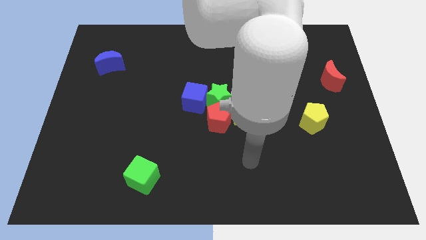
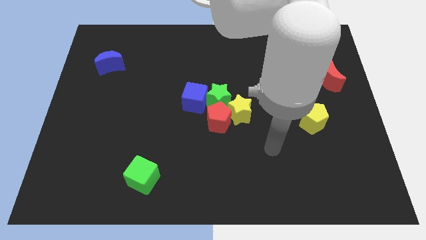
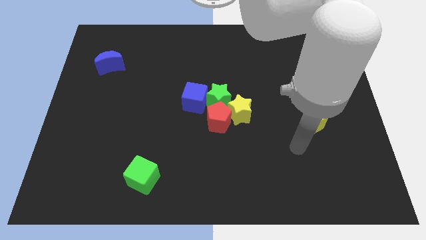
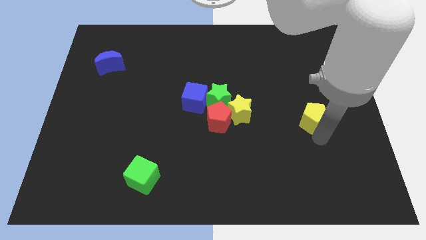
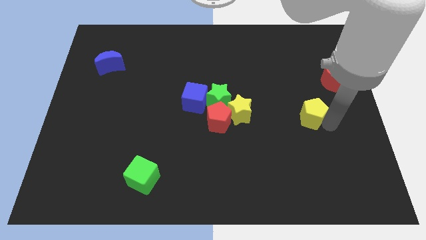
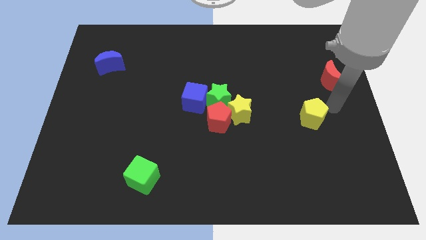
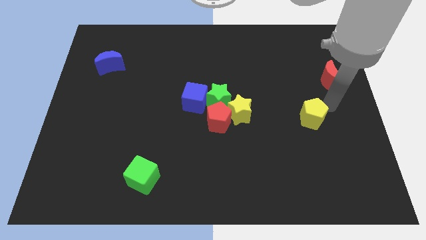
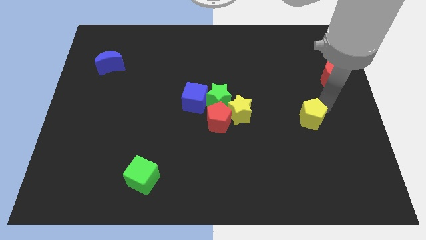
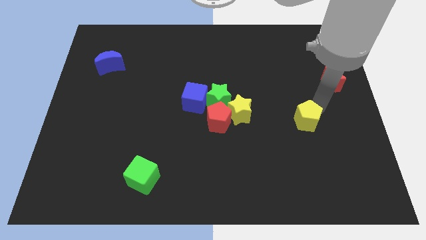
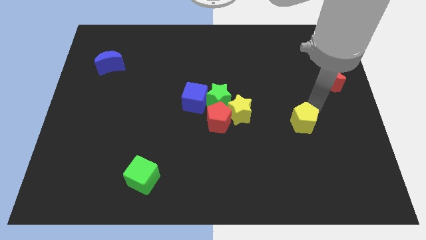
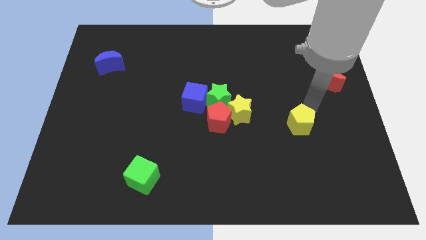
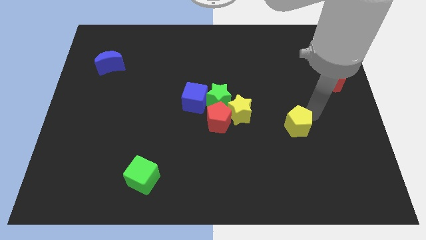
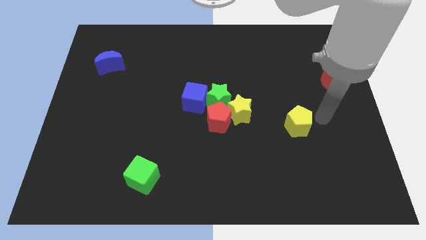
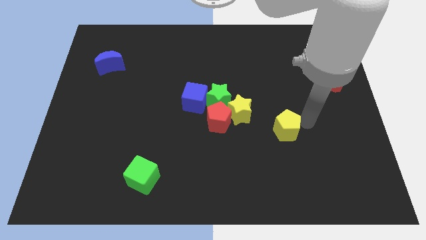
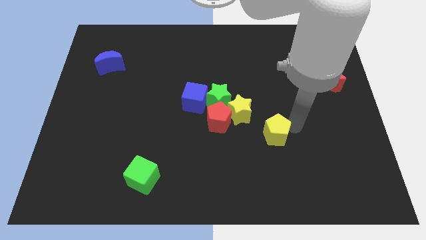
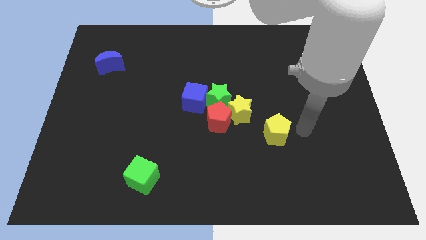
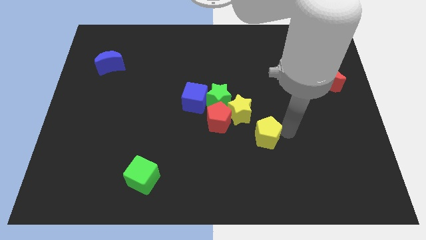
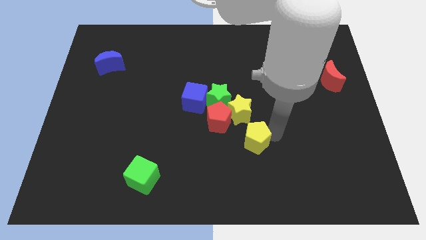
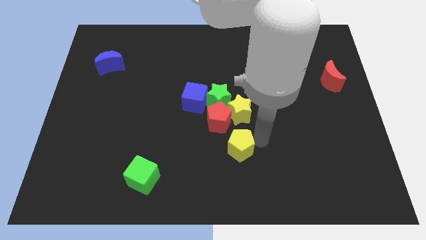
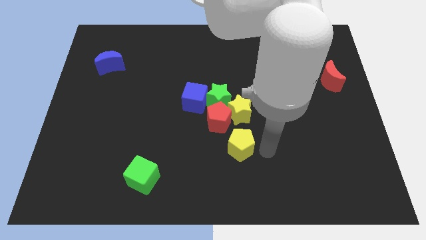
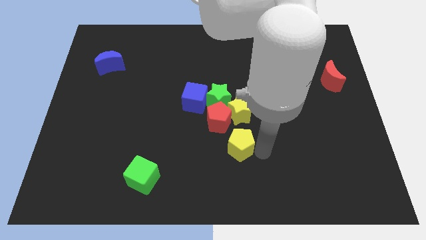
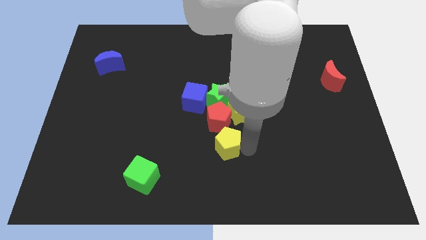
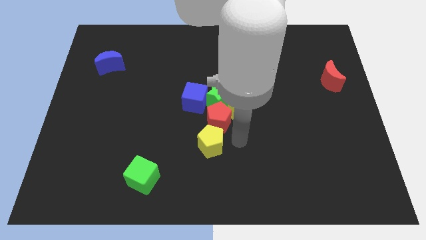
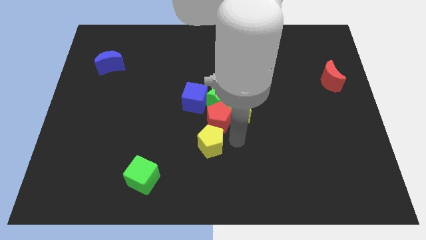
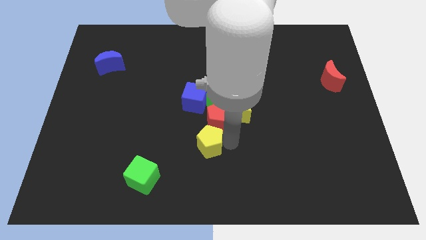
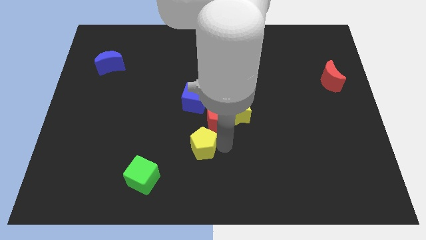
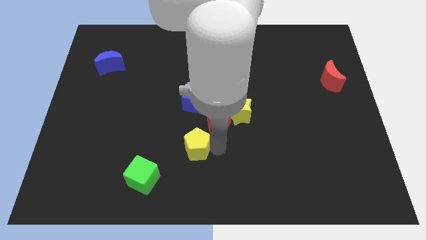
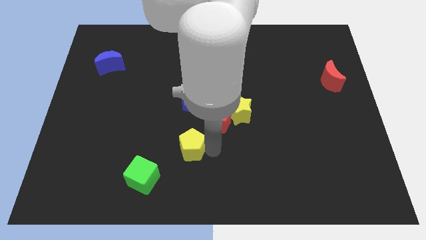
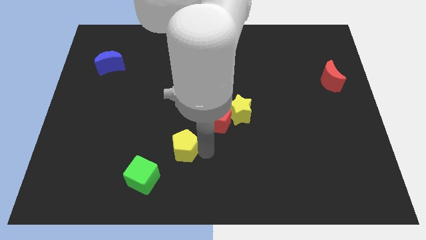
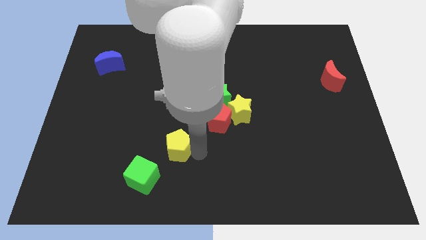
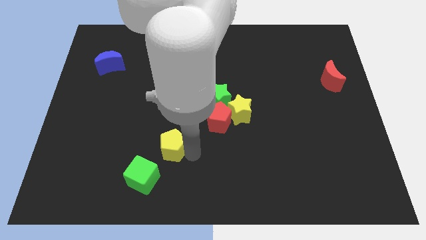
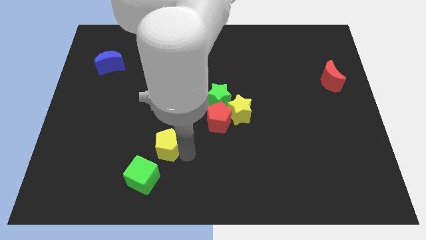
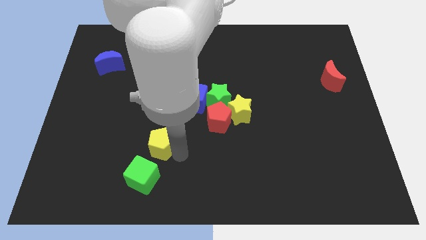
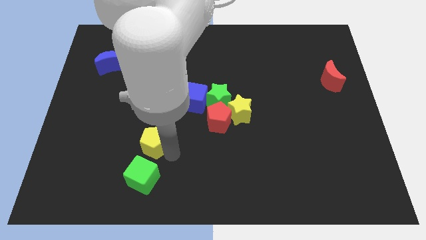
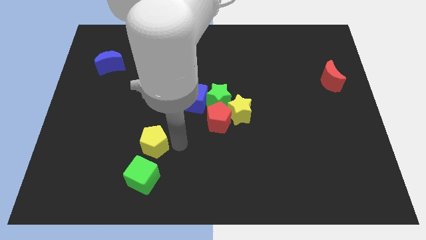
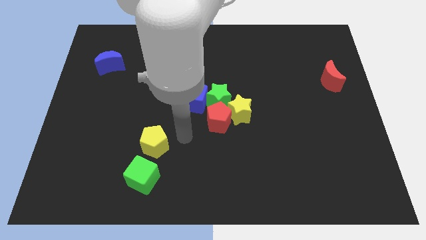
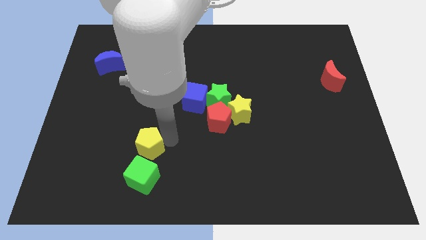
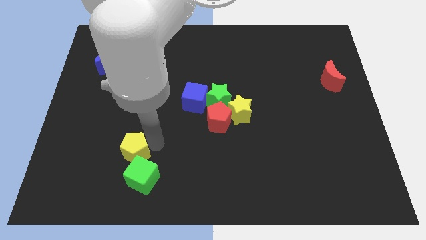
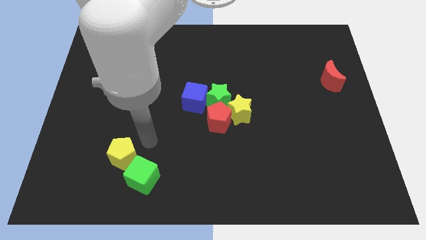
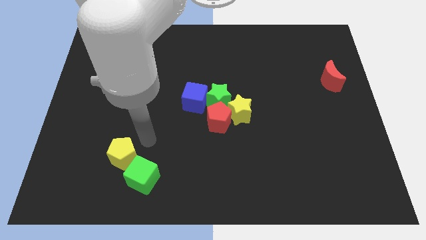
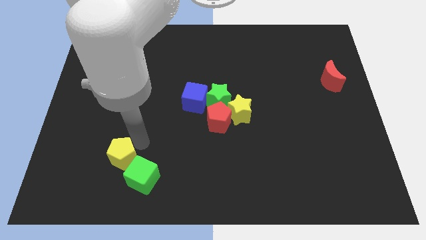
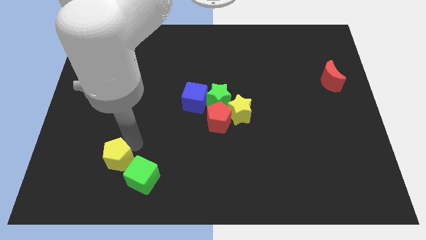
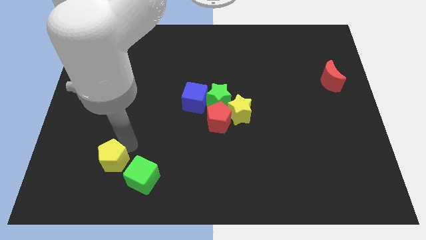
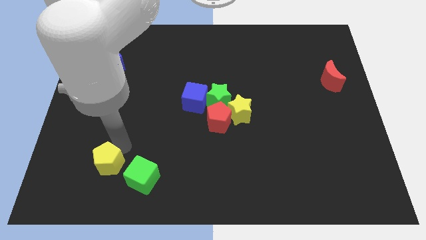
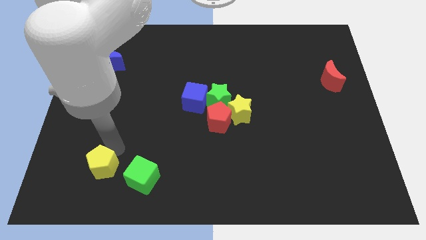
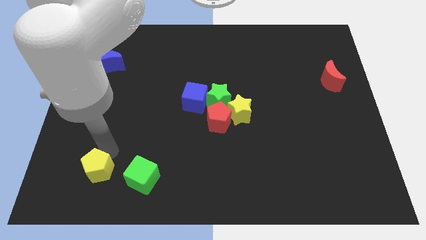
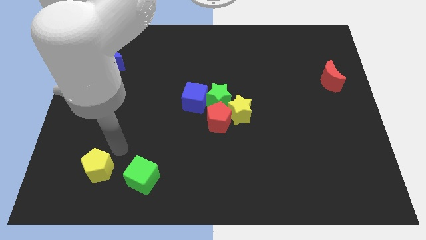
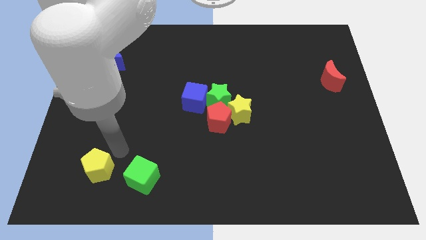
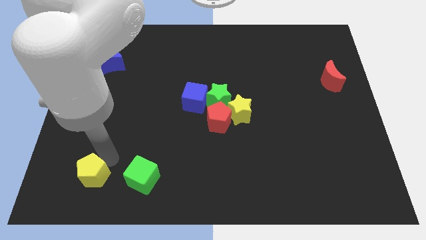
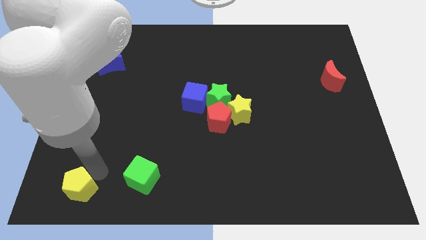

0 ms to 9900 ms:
push the yellow pentagon to the bottom left corner
